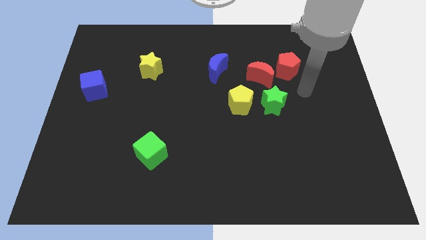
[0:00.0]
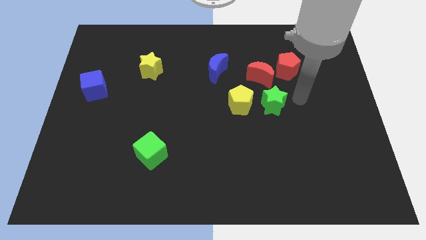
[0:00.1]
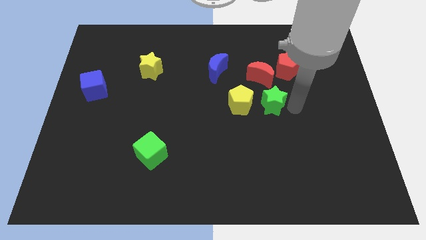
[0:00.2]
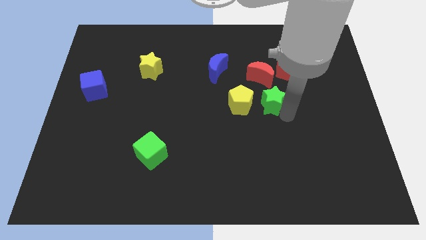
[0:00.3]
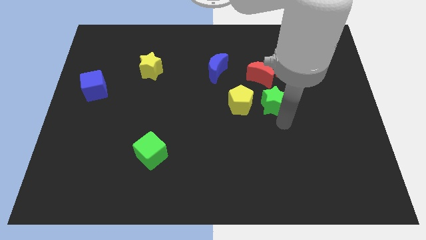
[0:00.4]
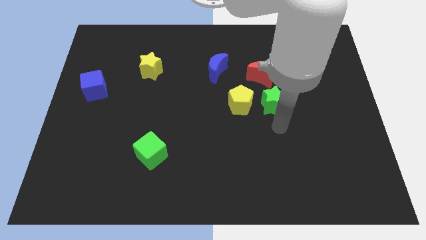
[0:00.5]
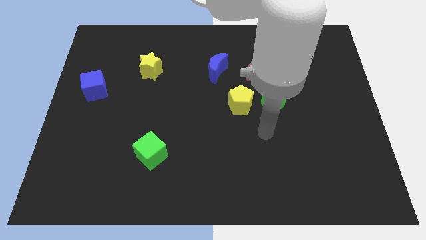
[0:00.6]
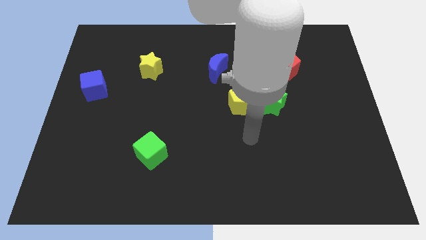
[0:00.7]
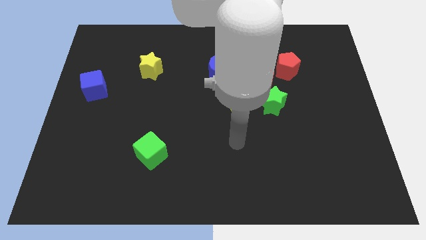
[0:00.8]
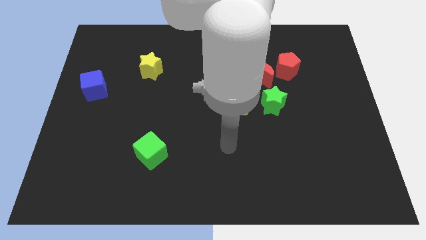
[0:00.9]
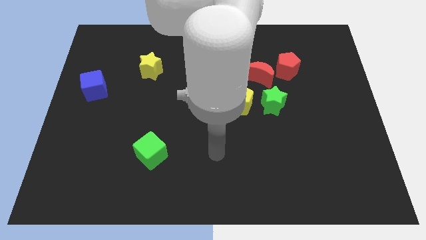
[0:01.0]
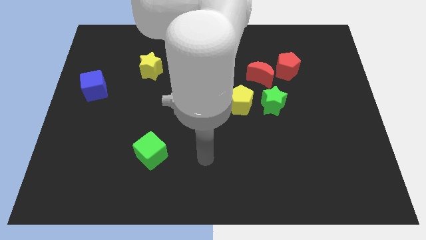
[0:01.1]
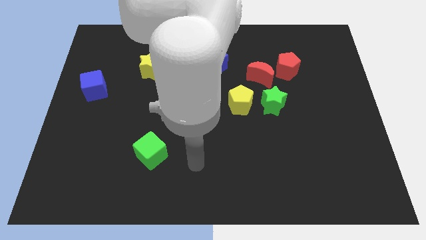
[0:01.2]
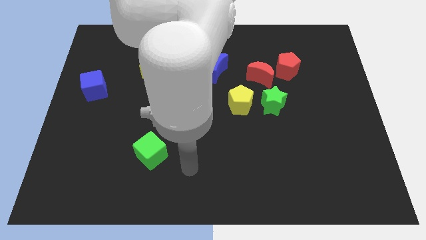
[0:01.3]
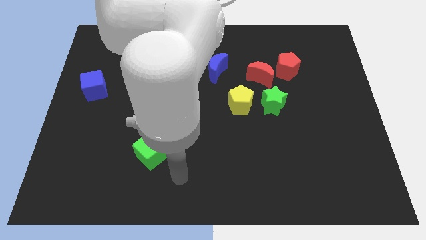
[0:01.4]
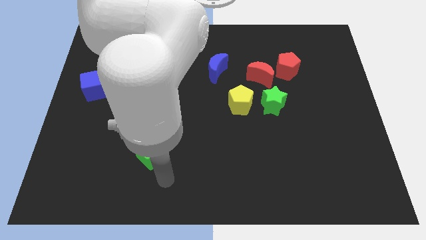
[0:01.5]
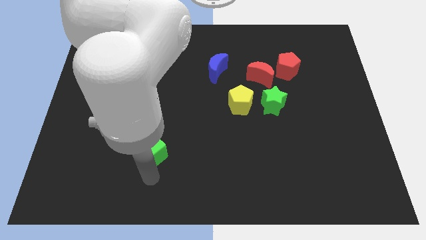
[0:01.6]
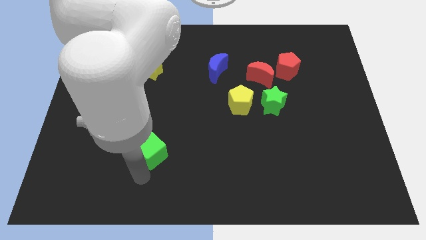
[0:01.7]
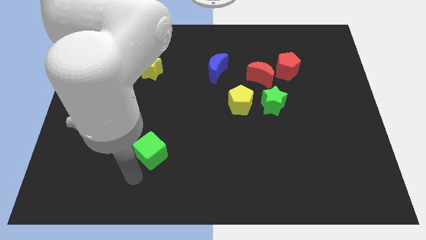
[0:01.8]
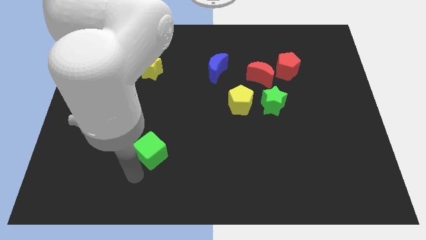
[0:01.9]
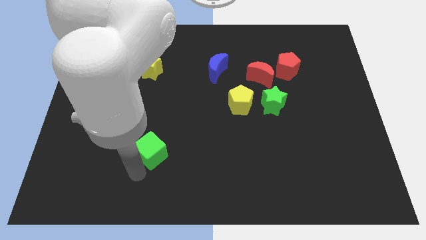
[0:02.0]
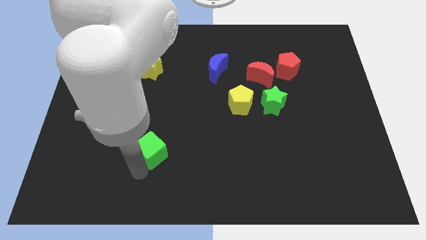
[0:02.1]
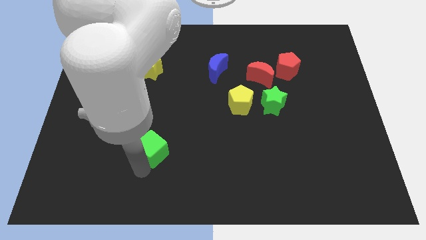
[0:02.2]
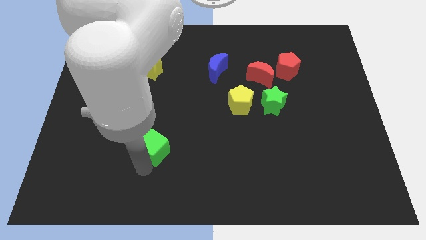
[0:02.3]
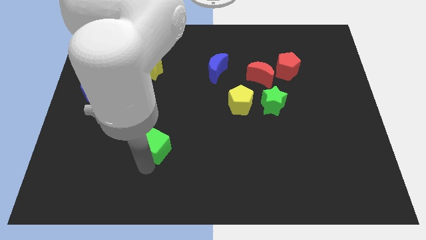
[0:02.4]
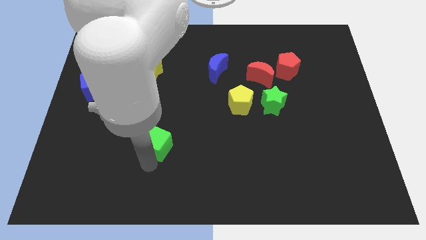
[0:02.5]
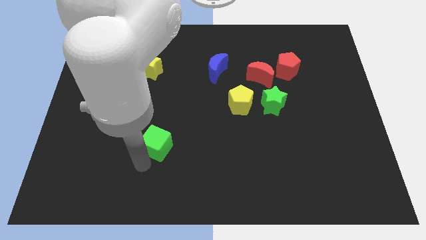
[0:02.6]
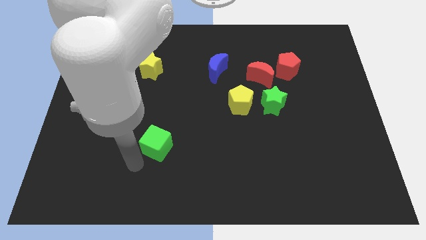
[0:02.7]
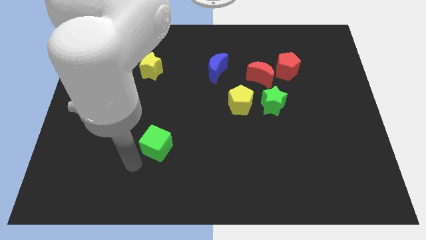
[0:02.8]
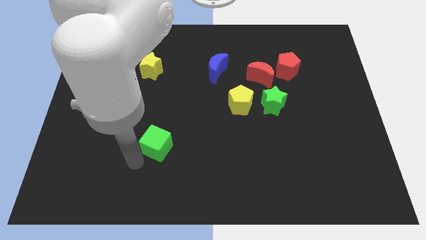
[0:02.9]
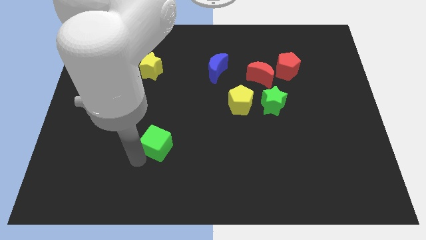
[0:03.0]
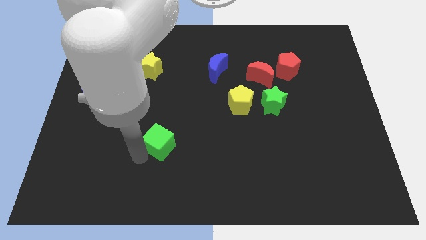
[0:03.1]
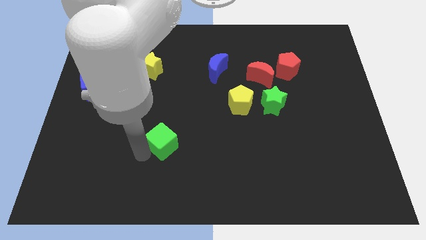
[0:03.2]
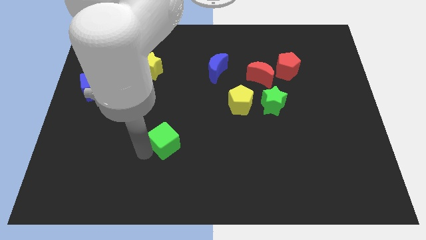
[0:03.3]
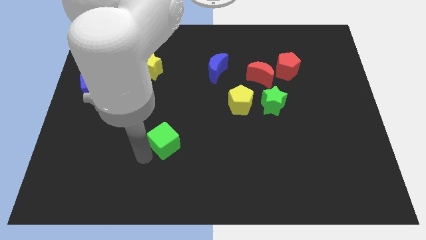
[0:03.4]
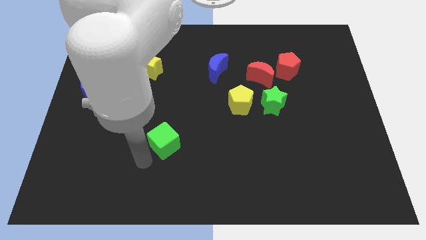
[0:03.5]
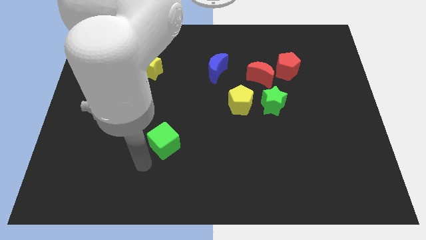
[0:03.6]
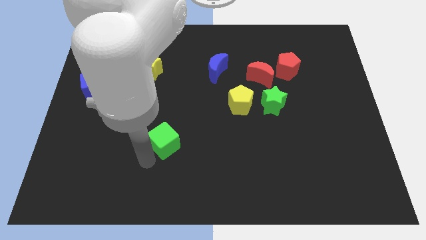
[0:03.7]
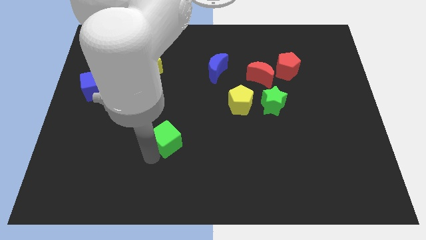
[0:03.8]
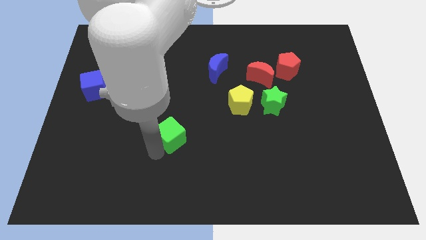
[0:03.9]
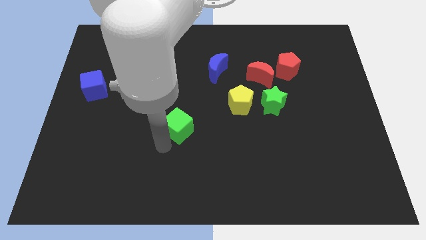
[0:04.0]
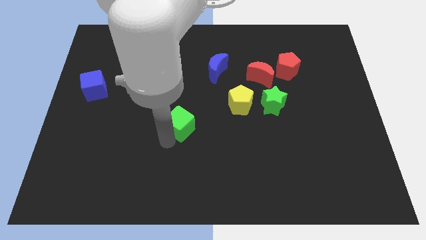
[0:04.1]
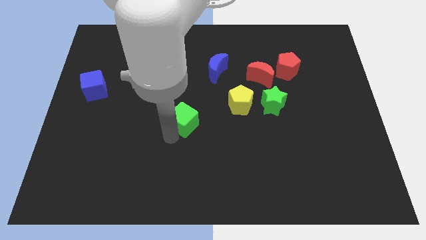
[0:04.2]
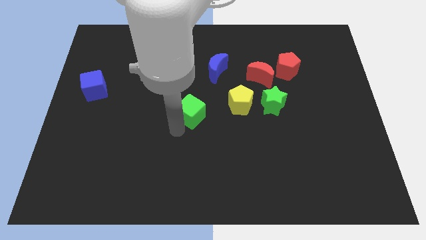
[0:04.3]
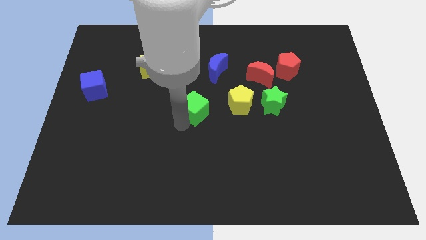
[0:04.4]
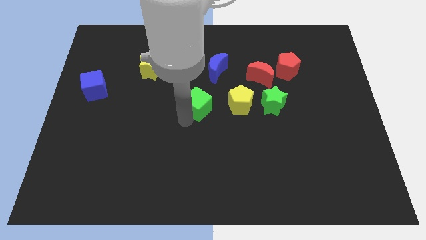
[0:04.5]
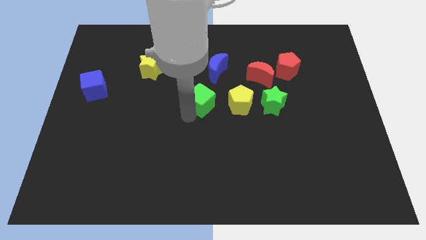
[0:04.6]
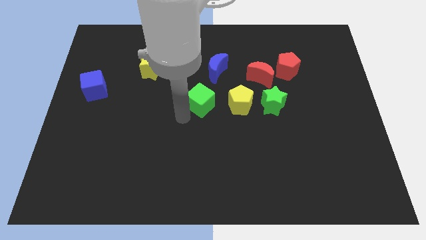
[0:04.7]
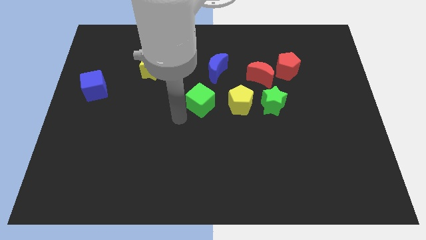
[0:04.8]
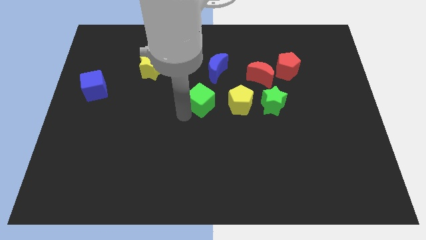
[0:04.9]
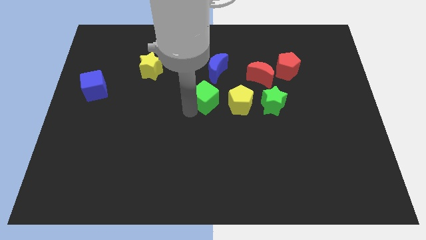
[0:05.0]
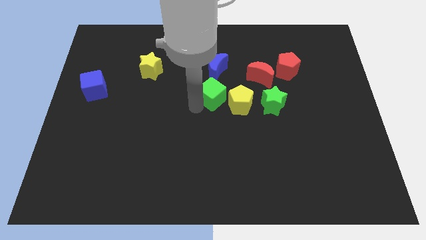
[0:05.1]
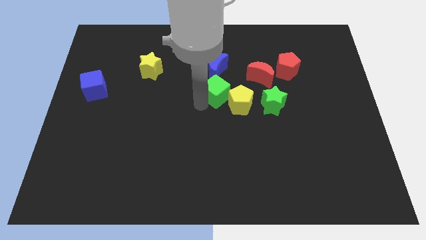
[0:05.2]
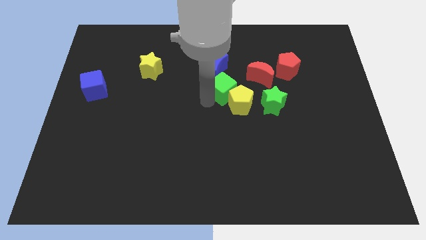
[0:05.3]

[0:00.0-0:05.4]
put the green cube above the yellow pentagon

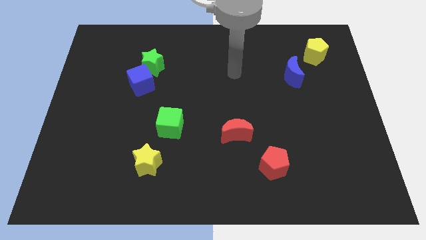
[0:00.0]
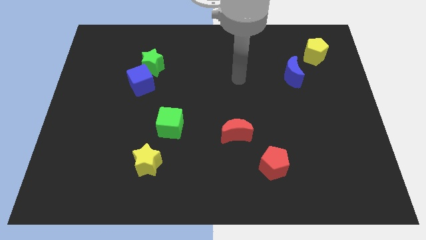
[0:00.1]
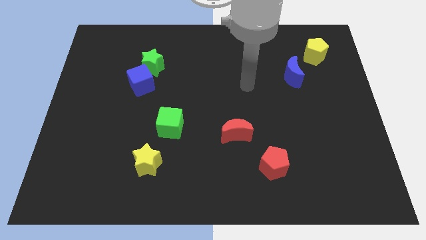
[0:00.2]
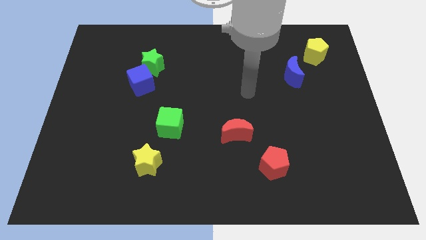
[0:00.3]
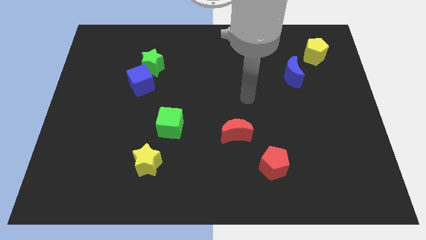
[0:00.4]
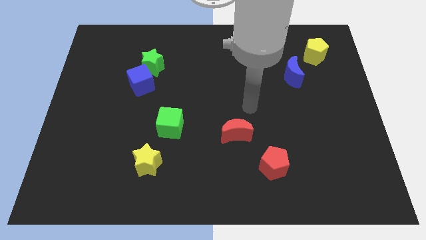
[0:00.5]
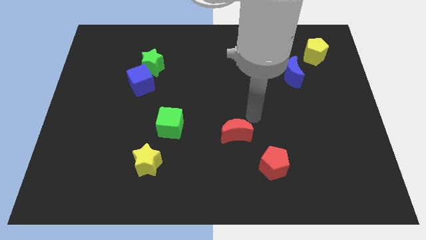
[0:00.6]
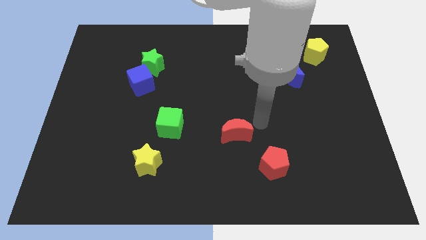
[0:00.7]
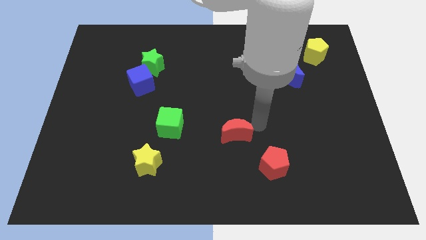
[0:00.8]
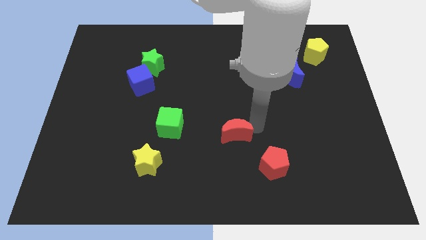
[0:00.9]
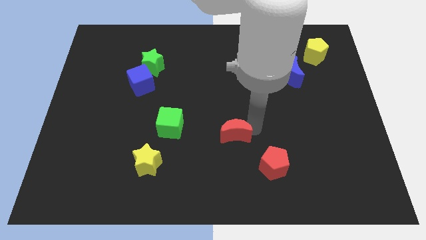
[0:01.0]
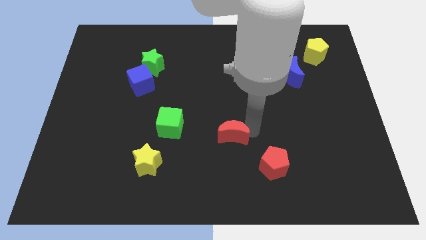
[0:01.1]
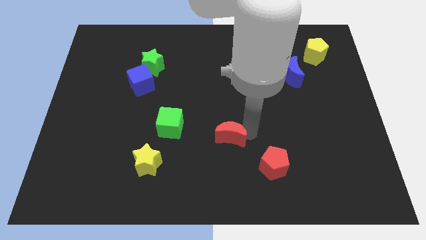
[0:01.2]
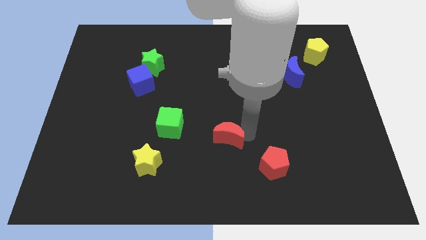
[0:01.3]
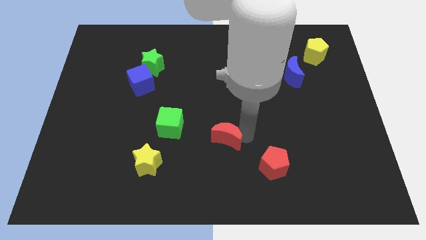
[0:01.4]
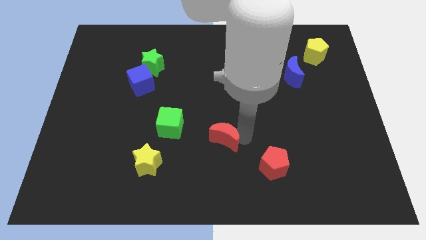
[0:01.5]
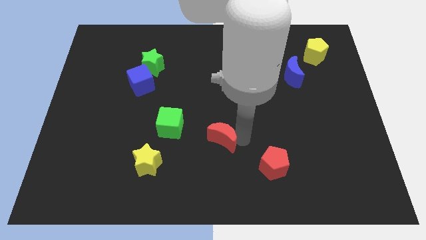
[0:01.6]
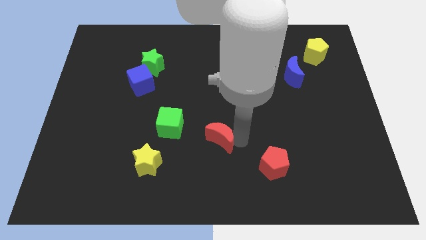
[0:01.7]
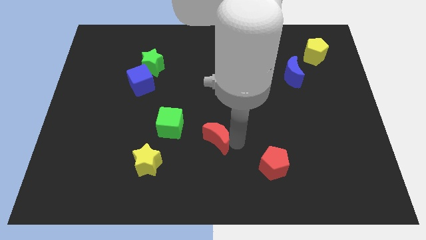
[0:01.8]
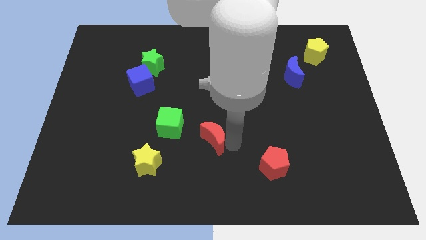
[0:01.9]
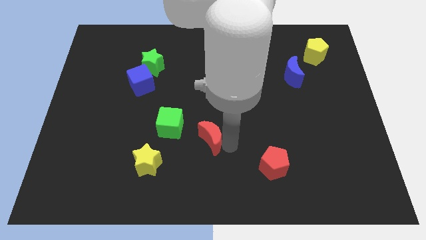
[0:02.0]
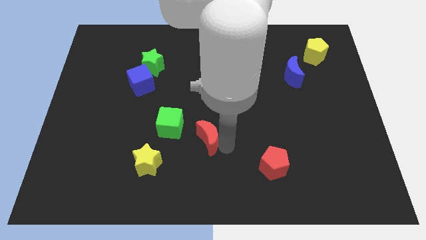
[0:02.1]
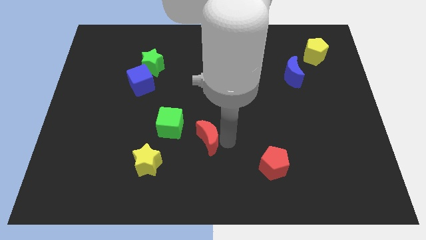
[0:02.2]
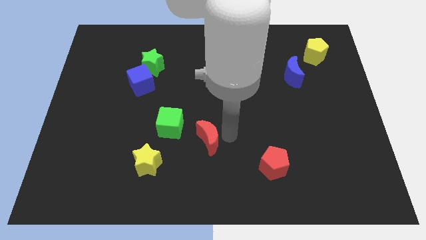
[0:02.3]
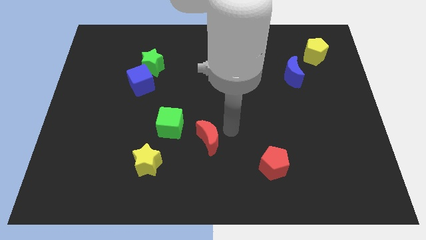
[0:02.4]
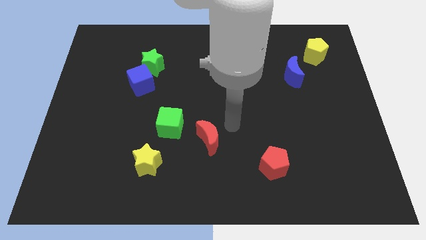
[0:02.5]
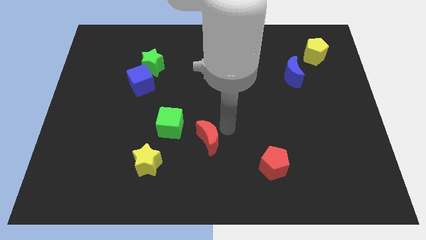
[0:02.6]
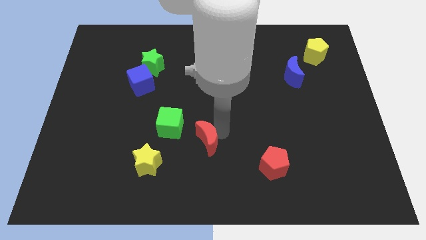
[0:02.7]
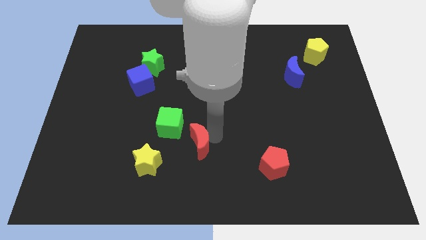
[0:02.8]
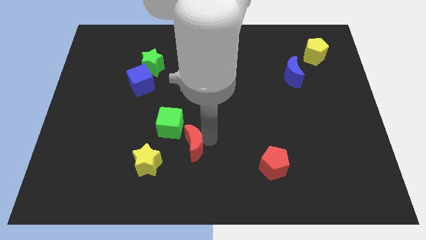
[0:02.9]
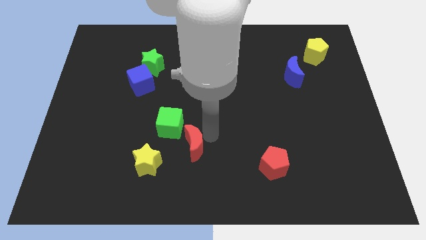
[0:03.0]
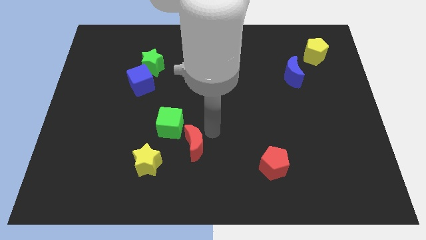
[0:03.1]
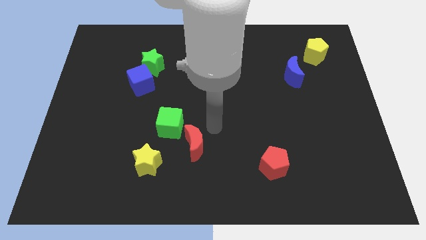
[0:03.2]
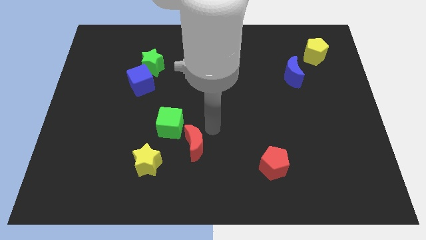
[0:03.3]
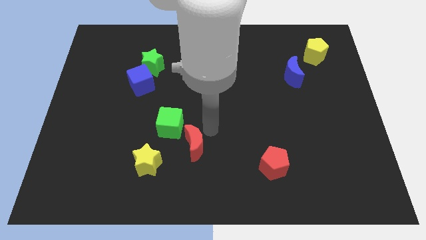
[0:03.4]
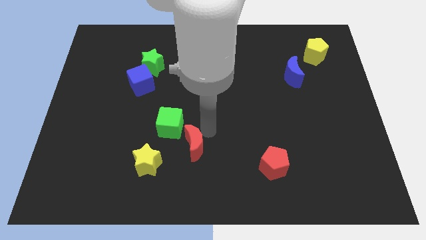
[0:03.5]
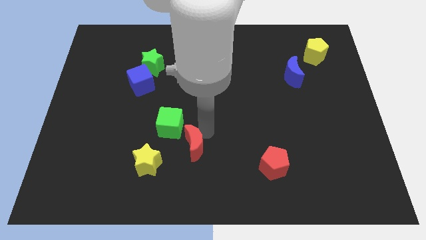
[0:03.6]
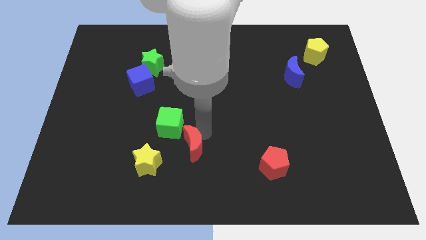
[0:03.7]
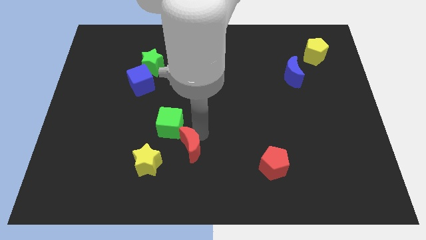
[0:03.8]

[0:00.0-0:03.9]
slide the red moon to the bottom side of the green cube
